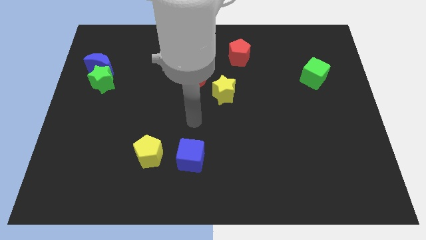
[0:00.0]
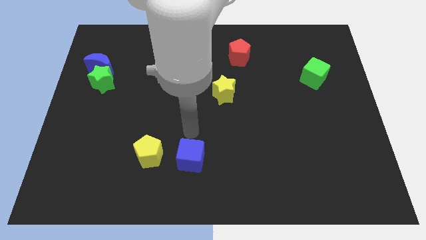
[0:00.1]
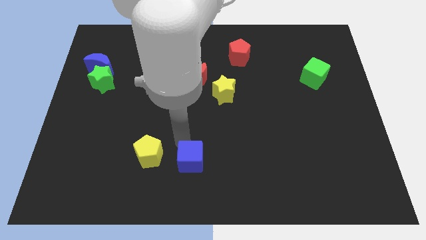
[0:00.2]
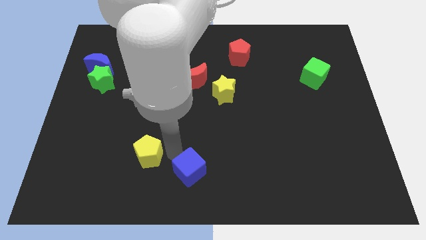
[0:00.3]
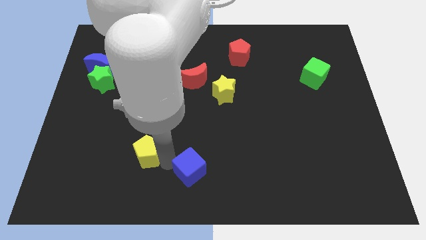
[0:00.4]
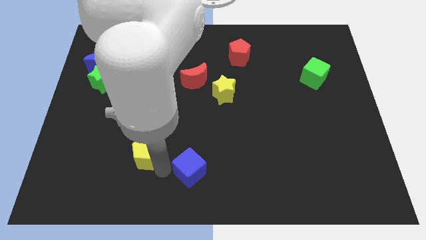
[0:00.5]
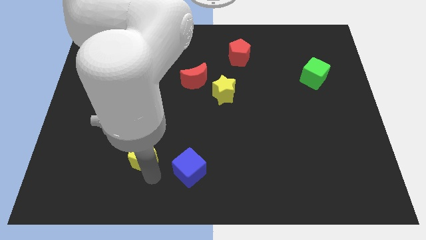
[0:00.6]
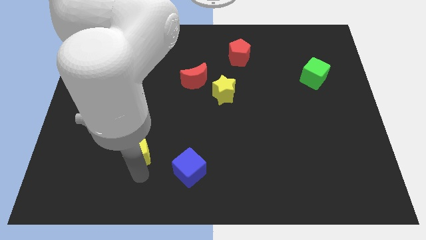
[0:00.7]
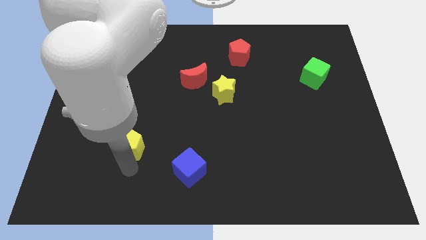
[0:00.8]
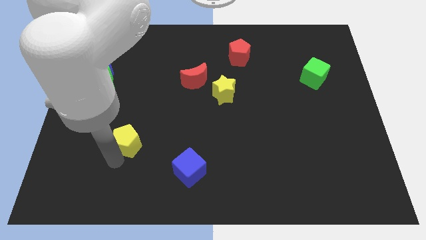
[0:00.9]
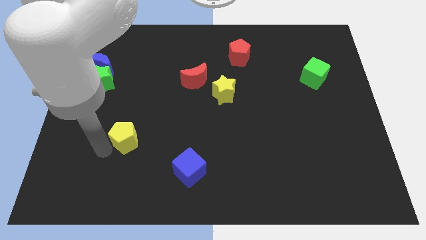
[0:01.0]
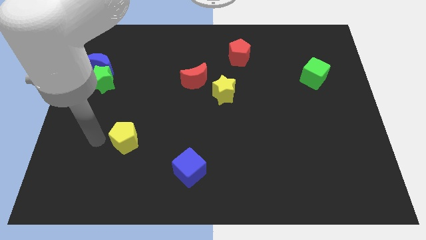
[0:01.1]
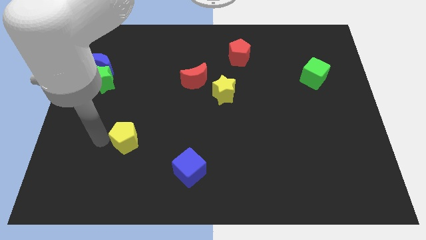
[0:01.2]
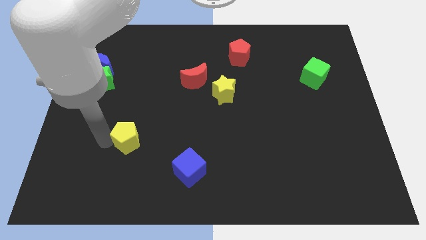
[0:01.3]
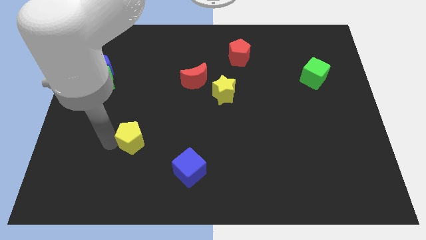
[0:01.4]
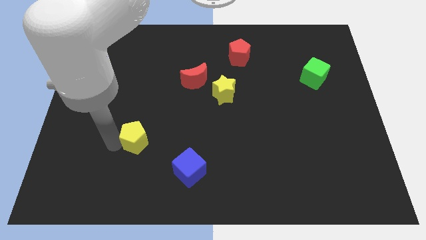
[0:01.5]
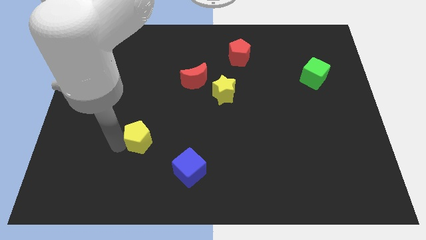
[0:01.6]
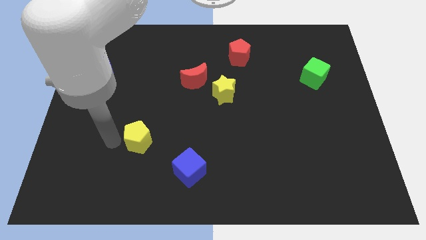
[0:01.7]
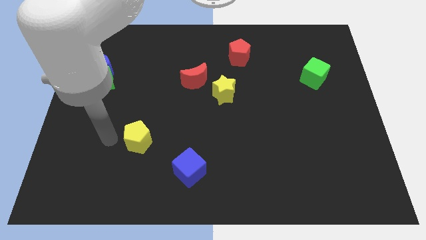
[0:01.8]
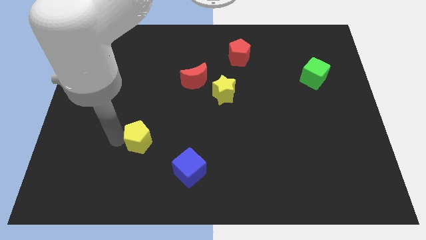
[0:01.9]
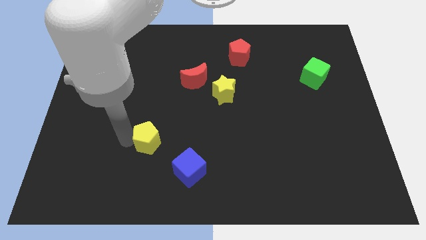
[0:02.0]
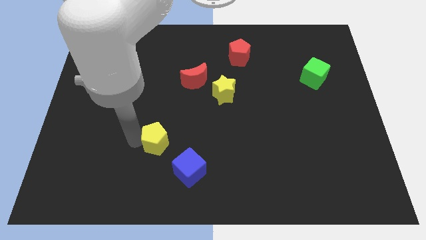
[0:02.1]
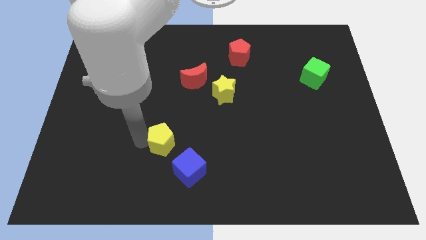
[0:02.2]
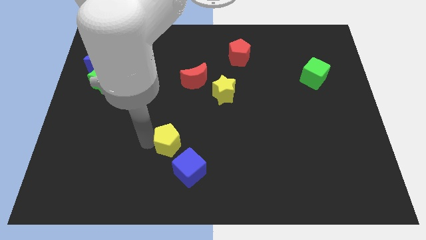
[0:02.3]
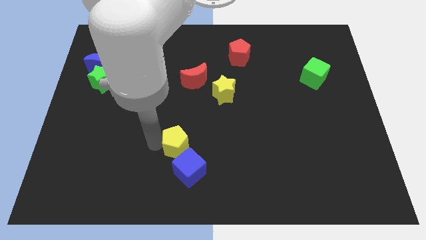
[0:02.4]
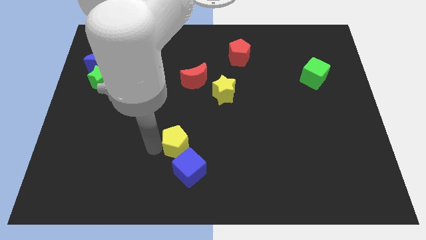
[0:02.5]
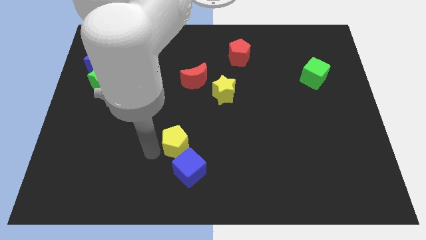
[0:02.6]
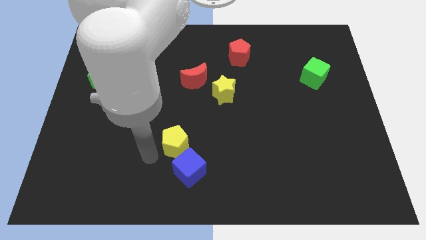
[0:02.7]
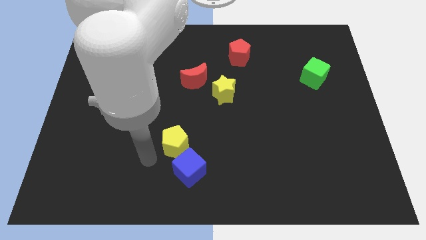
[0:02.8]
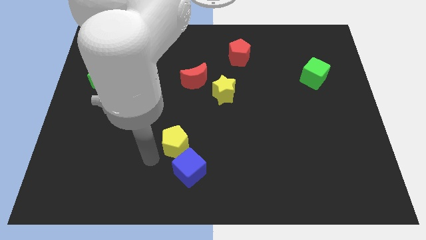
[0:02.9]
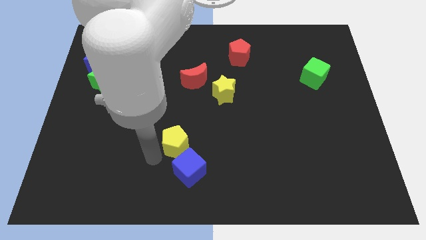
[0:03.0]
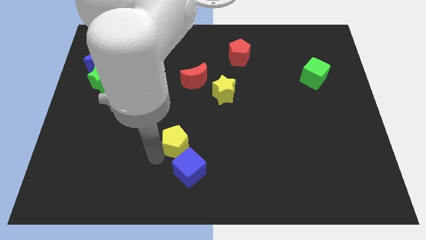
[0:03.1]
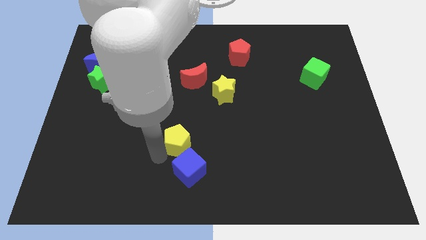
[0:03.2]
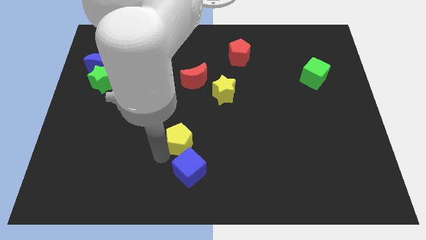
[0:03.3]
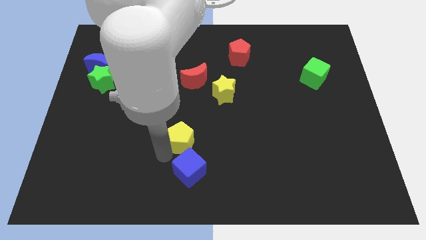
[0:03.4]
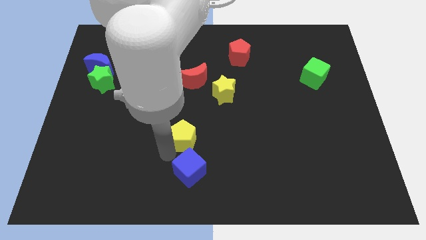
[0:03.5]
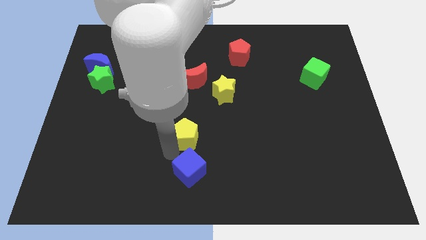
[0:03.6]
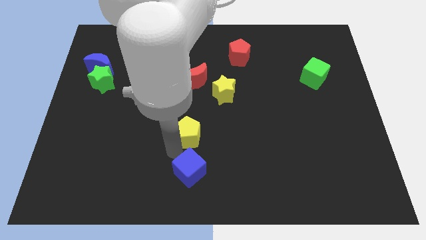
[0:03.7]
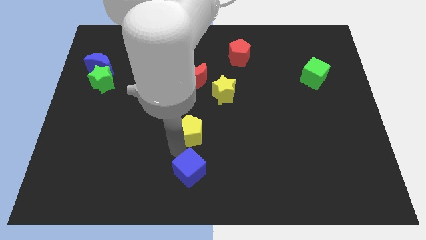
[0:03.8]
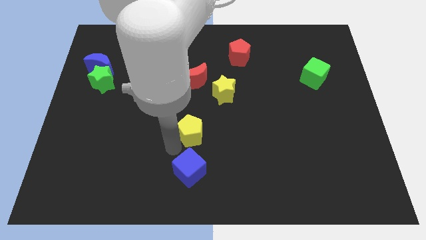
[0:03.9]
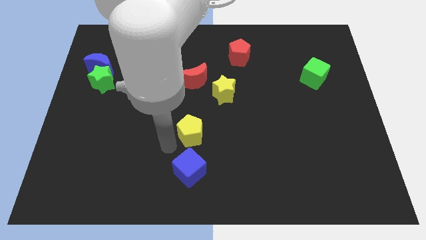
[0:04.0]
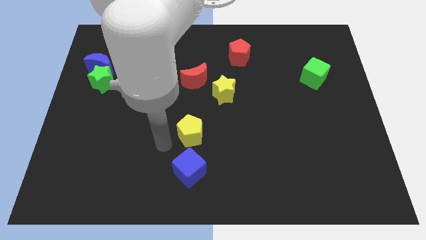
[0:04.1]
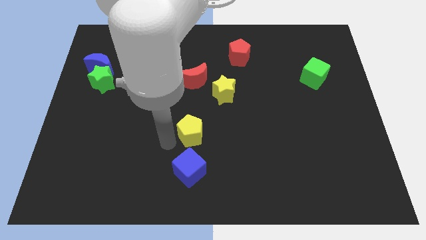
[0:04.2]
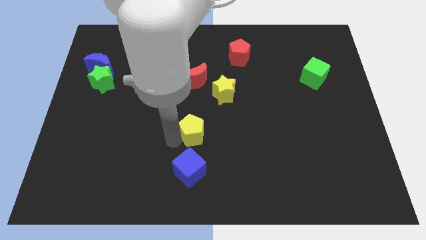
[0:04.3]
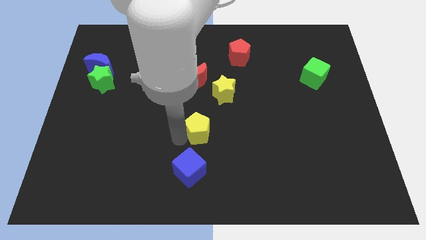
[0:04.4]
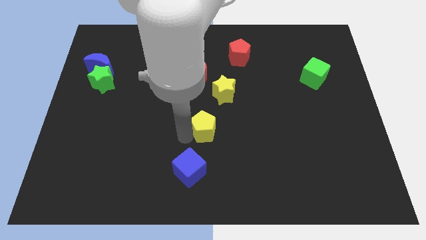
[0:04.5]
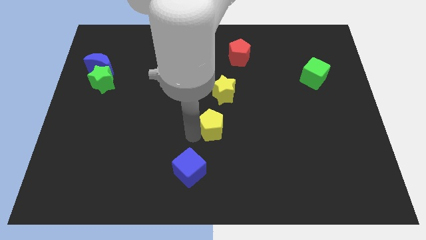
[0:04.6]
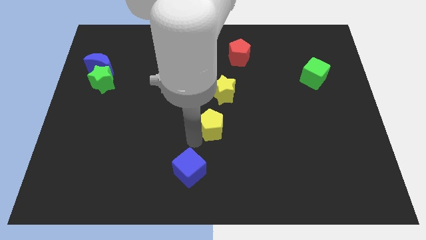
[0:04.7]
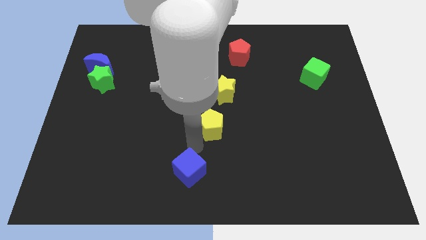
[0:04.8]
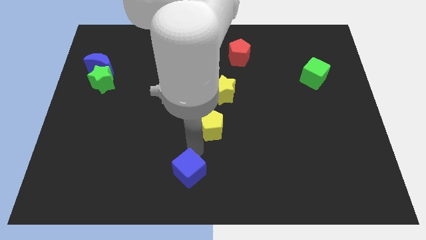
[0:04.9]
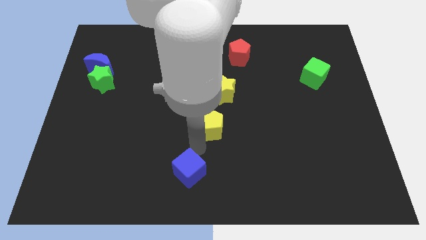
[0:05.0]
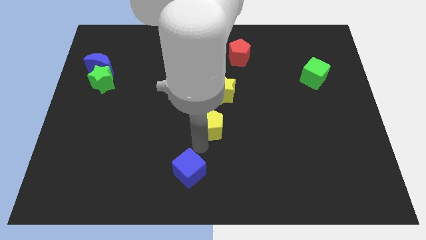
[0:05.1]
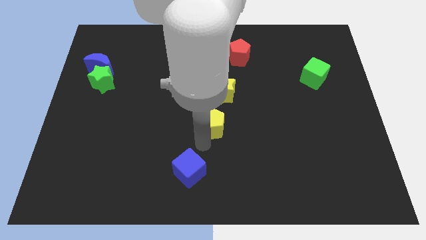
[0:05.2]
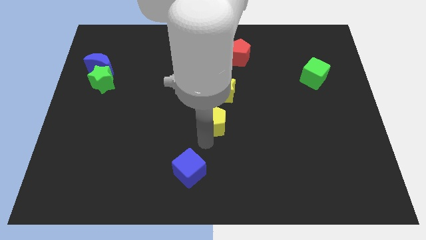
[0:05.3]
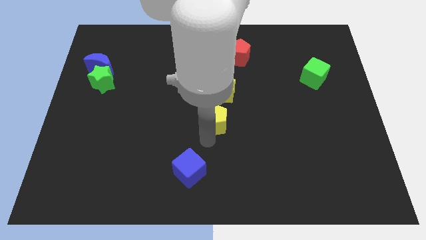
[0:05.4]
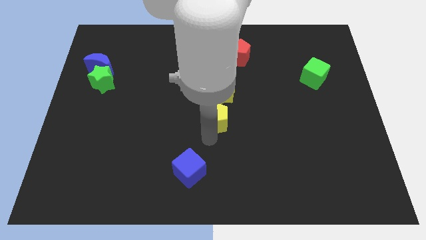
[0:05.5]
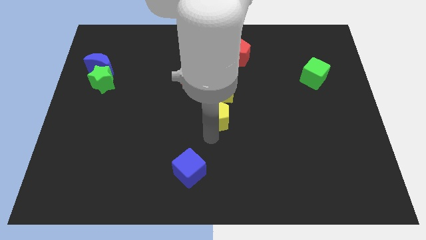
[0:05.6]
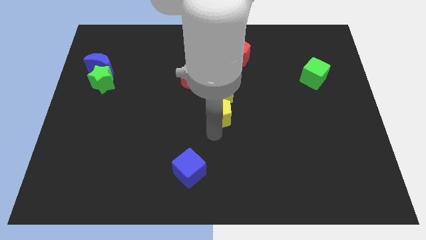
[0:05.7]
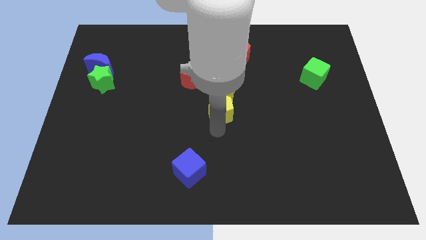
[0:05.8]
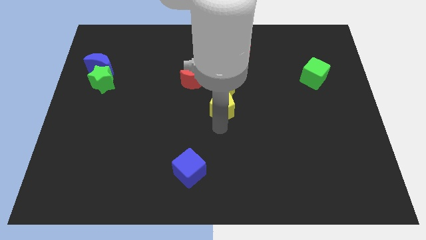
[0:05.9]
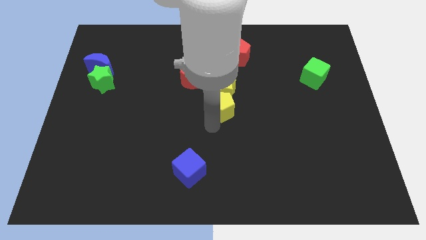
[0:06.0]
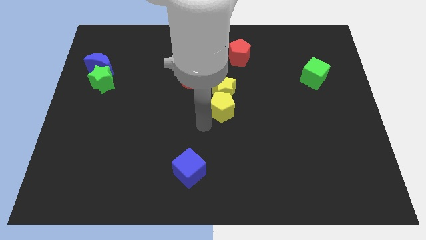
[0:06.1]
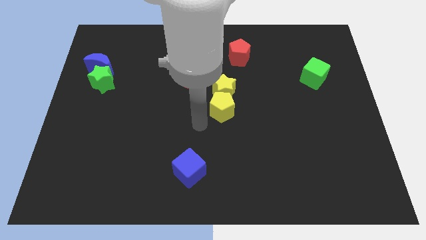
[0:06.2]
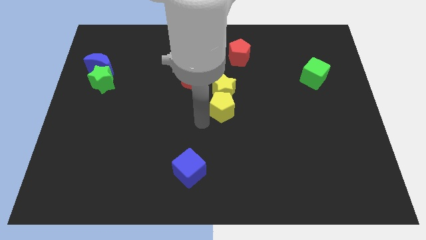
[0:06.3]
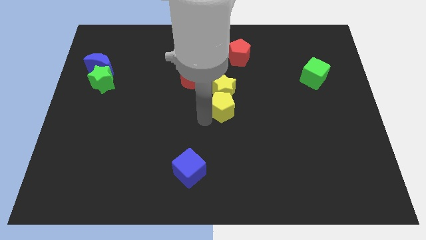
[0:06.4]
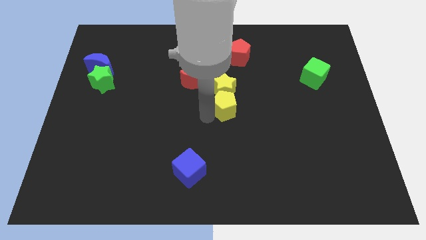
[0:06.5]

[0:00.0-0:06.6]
slide the yellow pentagon diagonally up and to the right

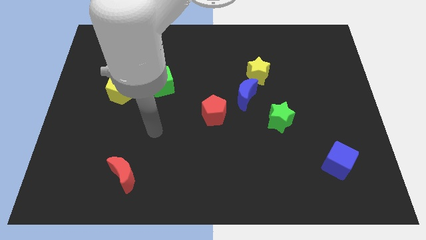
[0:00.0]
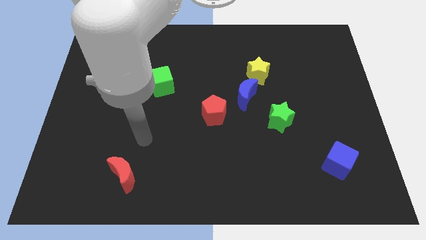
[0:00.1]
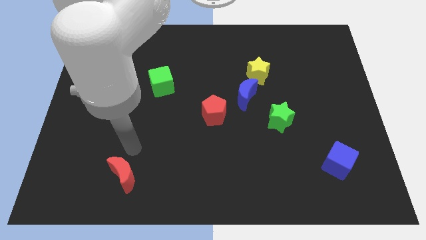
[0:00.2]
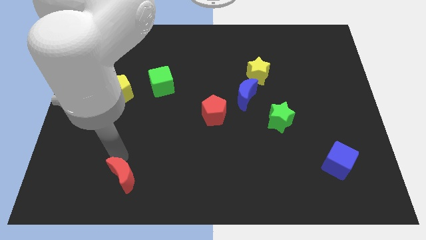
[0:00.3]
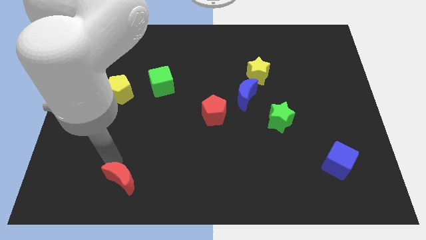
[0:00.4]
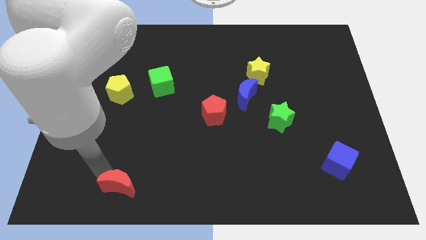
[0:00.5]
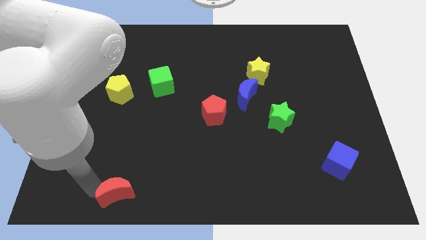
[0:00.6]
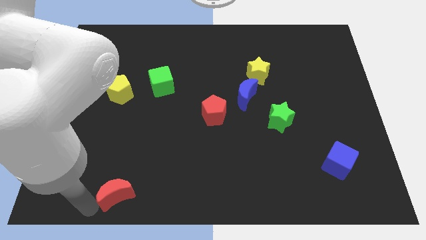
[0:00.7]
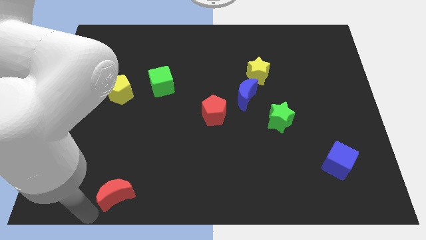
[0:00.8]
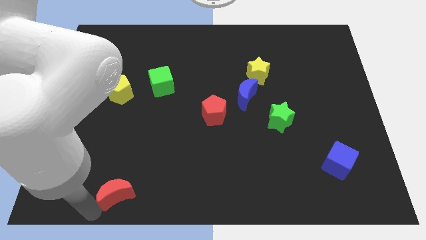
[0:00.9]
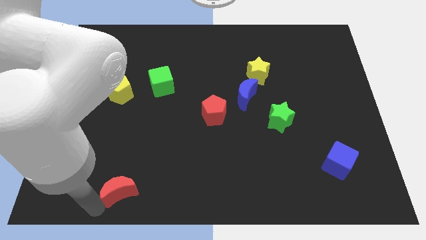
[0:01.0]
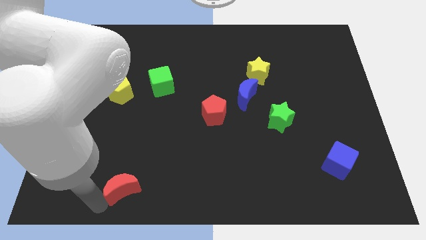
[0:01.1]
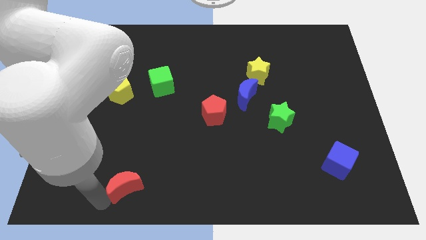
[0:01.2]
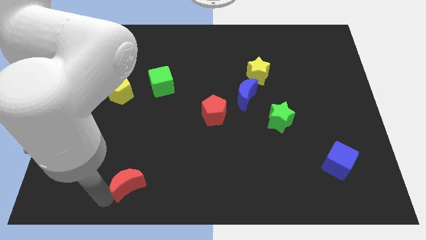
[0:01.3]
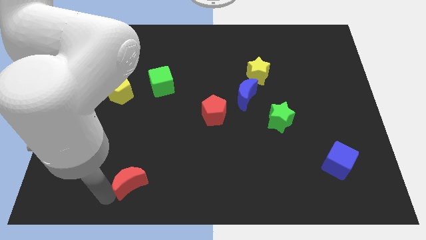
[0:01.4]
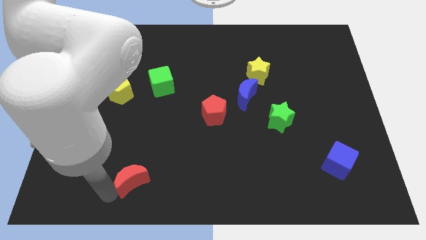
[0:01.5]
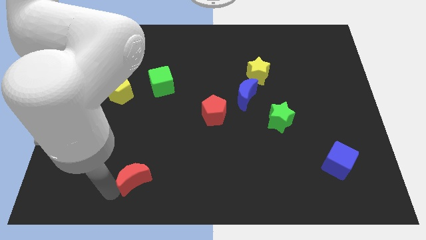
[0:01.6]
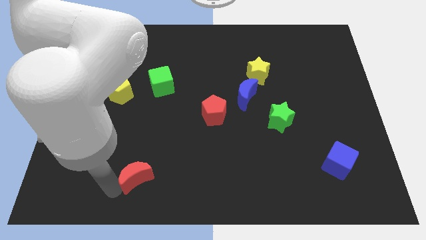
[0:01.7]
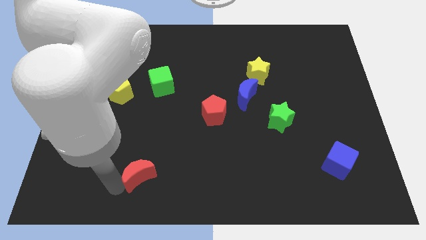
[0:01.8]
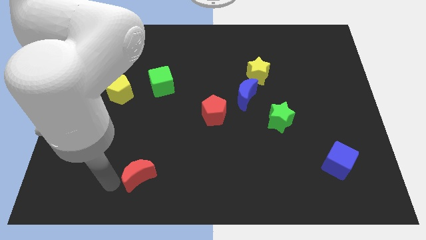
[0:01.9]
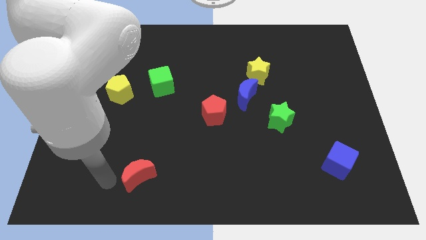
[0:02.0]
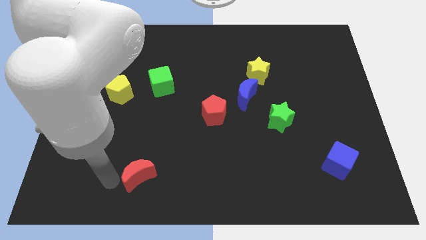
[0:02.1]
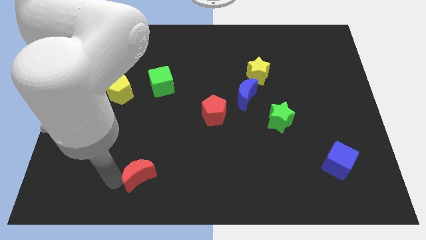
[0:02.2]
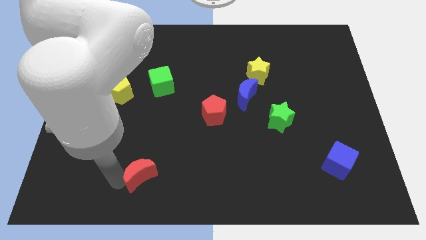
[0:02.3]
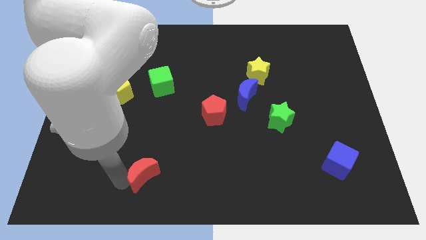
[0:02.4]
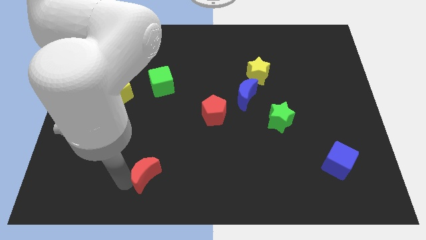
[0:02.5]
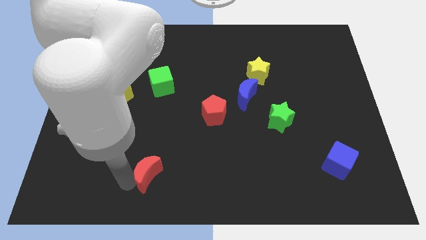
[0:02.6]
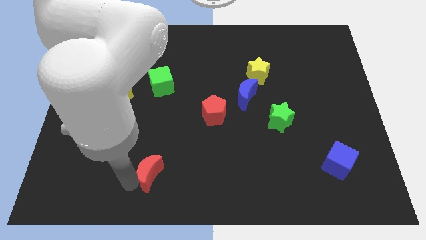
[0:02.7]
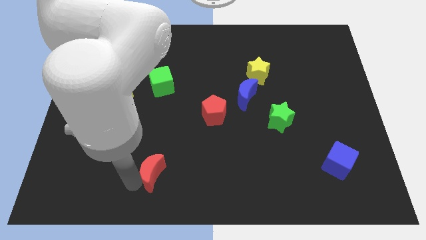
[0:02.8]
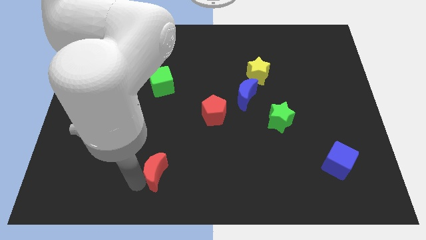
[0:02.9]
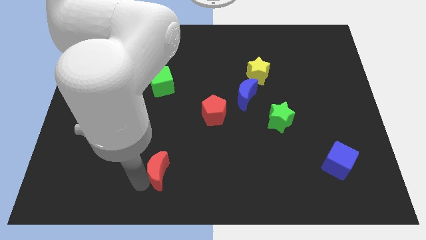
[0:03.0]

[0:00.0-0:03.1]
slide the red moon slightly right
